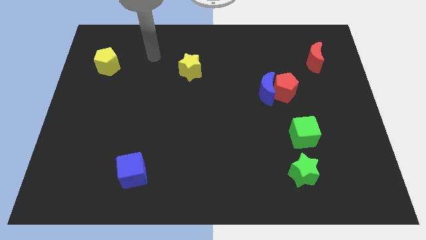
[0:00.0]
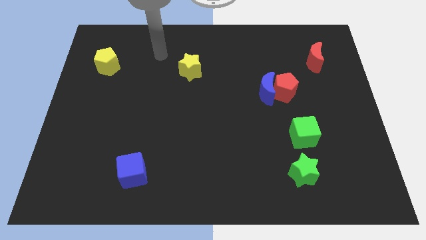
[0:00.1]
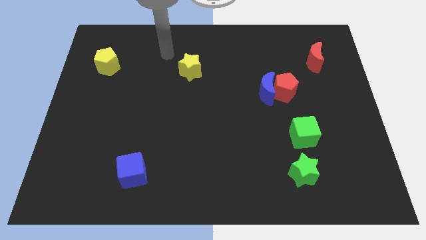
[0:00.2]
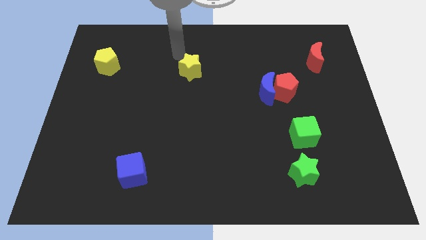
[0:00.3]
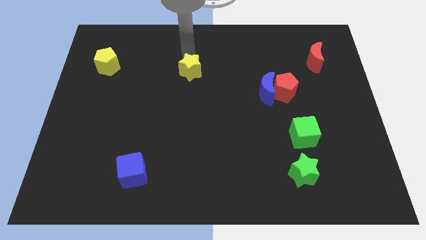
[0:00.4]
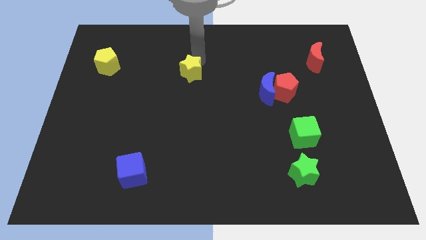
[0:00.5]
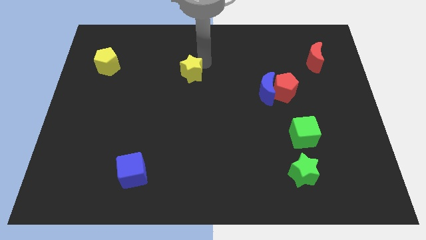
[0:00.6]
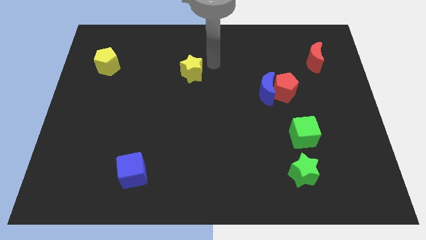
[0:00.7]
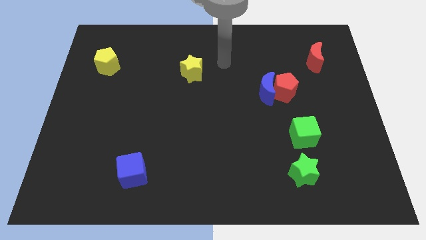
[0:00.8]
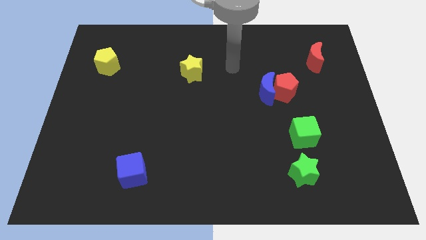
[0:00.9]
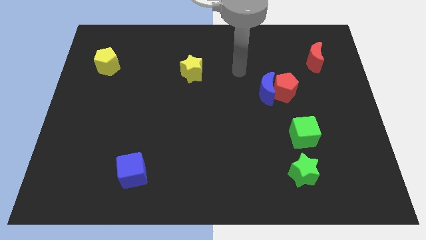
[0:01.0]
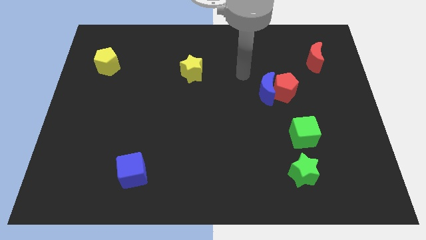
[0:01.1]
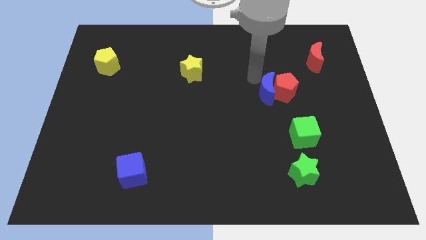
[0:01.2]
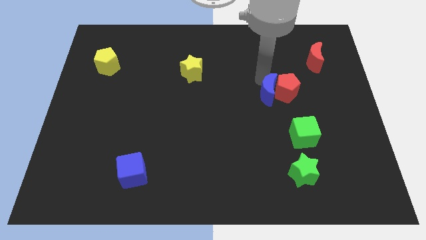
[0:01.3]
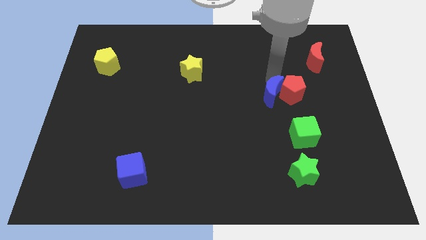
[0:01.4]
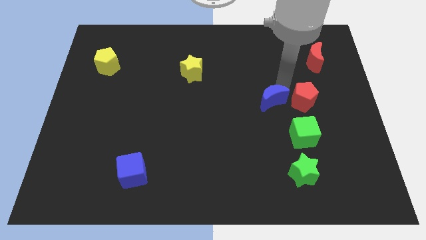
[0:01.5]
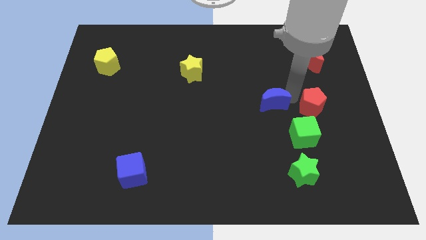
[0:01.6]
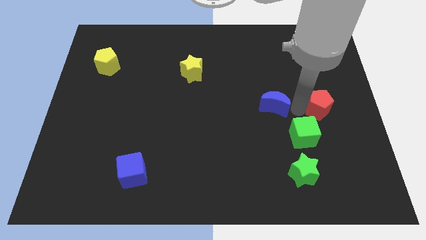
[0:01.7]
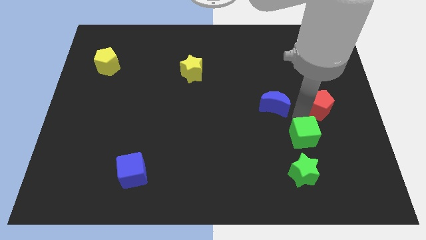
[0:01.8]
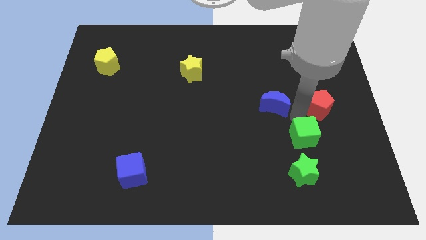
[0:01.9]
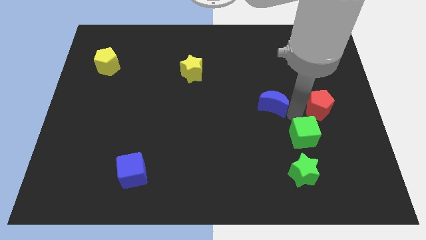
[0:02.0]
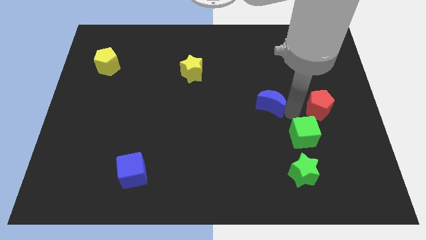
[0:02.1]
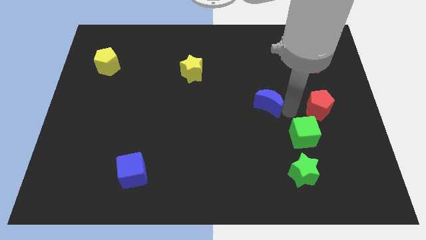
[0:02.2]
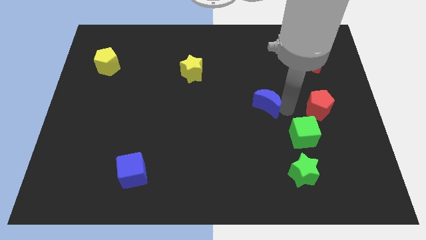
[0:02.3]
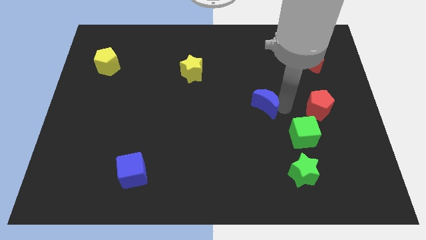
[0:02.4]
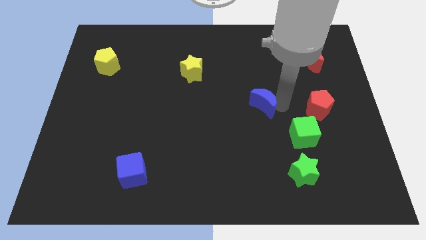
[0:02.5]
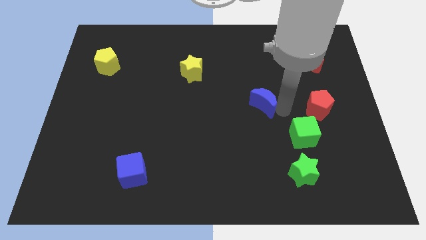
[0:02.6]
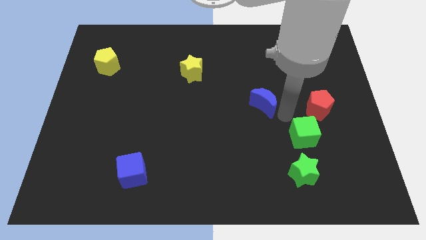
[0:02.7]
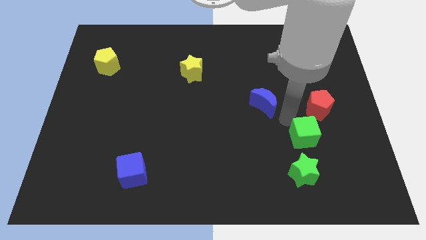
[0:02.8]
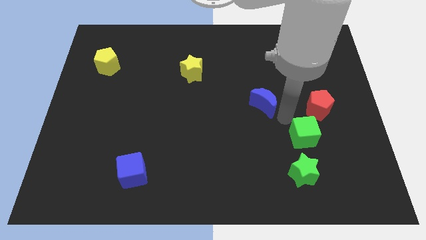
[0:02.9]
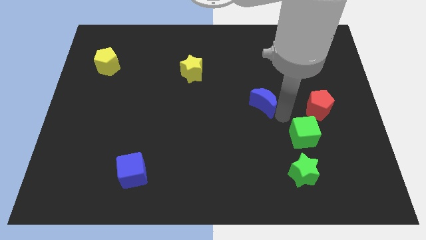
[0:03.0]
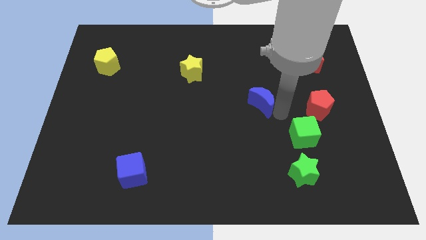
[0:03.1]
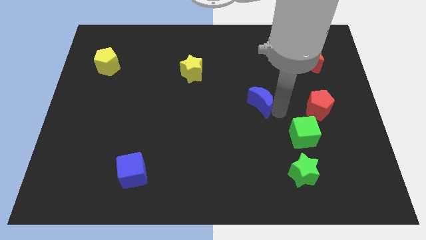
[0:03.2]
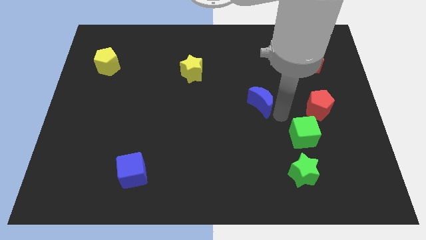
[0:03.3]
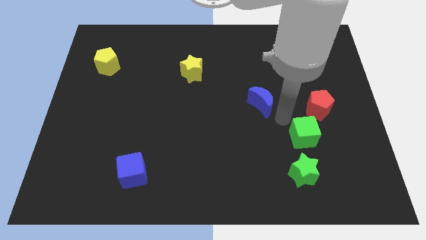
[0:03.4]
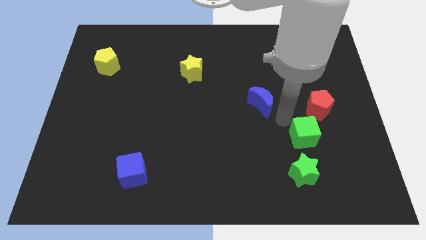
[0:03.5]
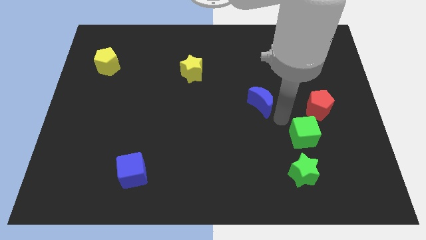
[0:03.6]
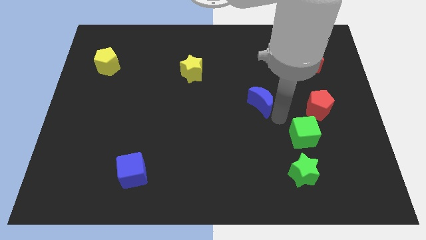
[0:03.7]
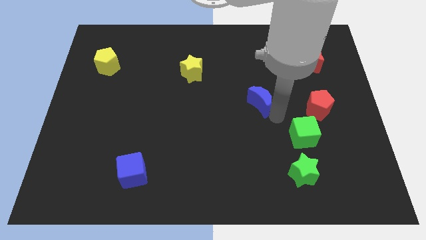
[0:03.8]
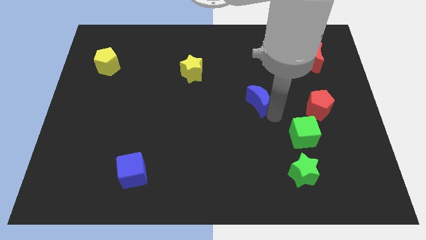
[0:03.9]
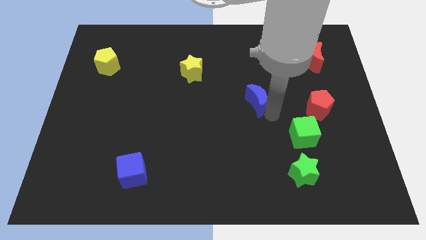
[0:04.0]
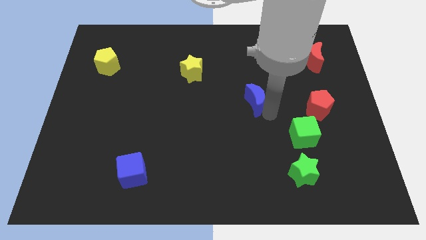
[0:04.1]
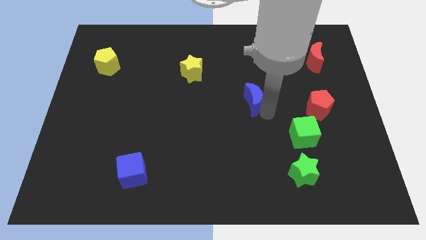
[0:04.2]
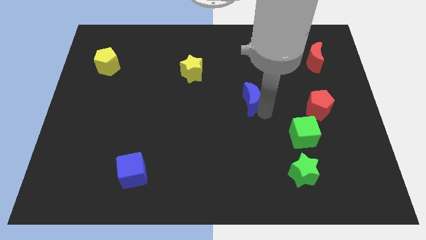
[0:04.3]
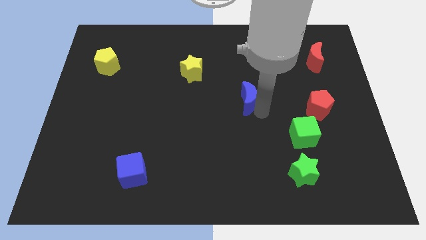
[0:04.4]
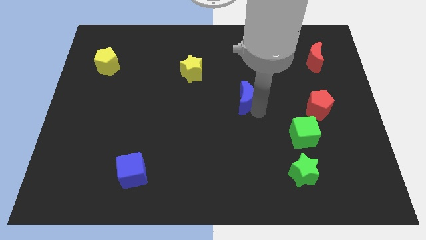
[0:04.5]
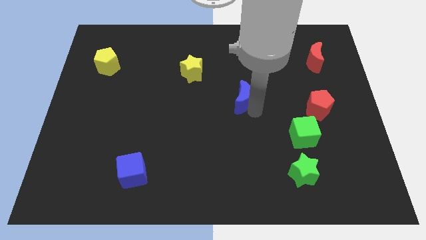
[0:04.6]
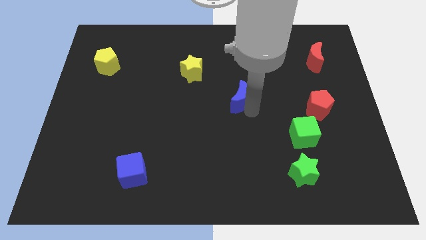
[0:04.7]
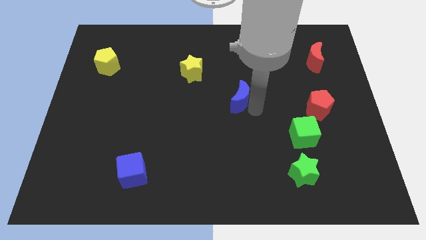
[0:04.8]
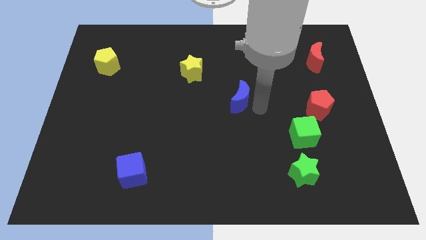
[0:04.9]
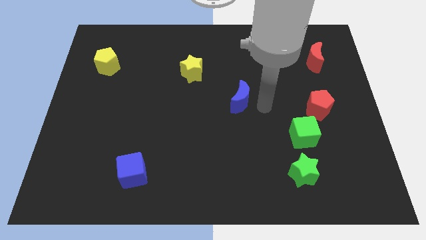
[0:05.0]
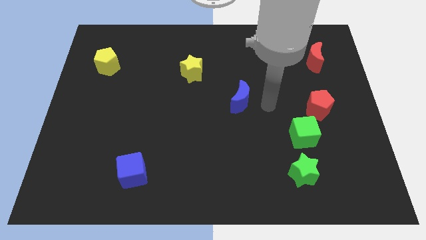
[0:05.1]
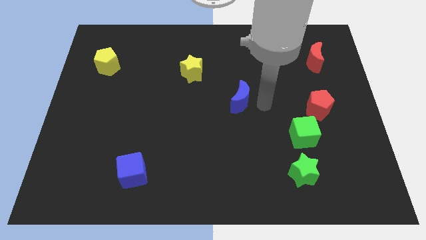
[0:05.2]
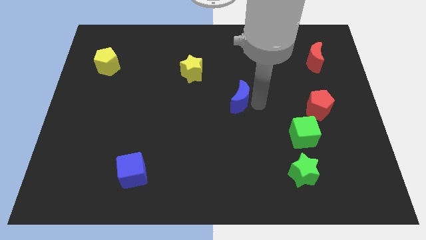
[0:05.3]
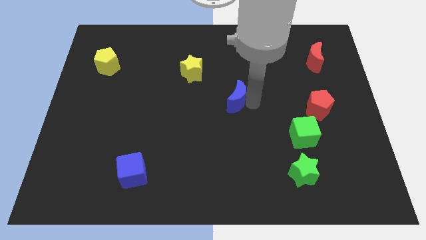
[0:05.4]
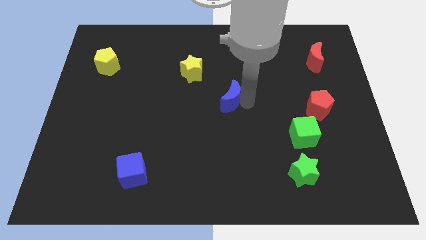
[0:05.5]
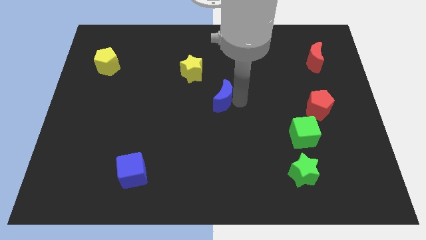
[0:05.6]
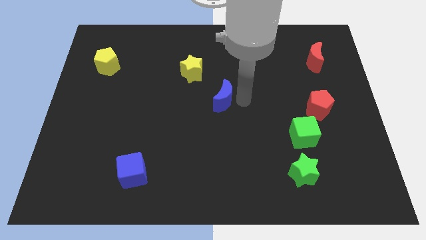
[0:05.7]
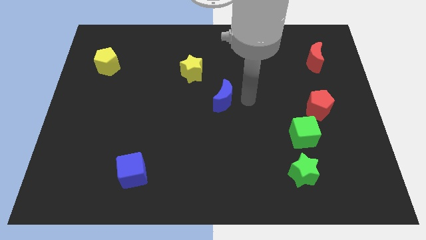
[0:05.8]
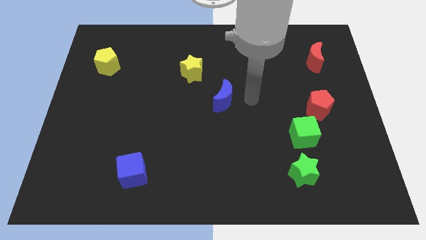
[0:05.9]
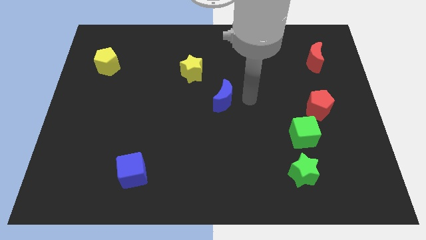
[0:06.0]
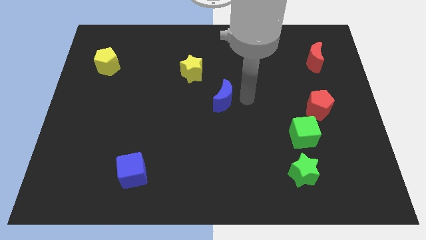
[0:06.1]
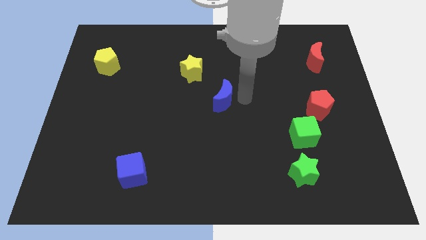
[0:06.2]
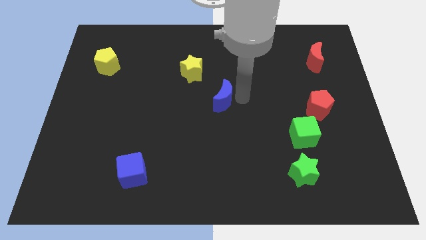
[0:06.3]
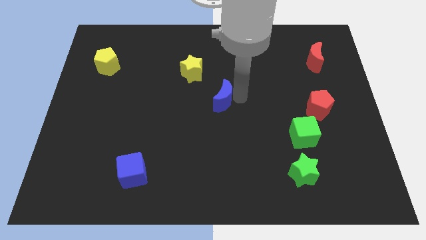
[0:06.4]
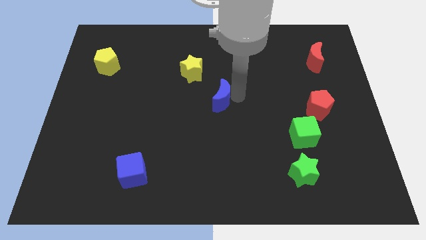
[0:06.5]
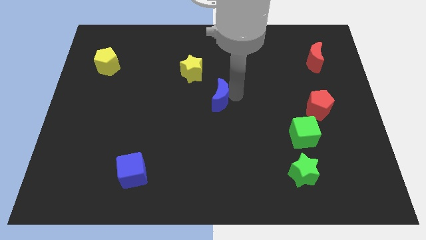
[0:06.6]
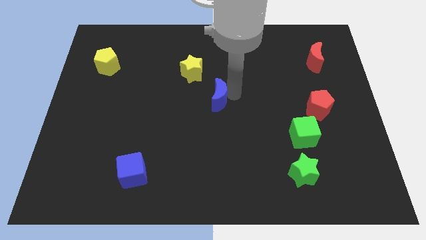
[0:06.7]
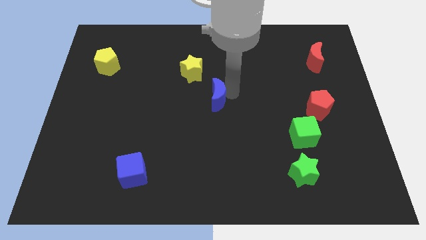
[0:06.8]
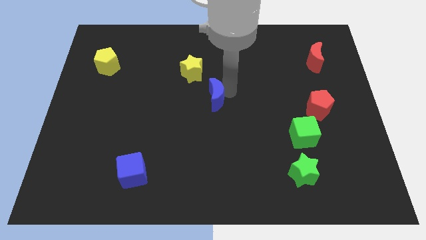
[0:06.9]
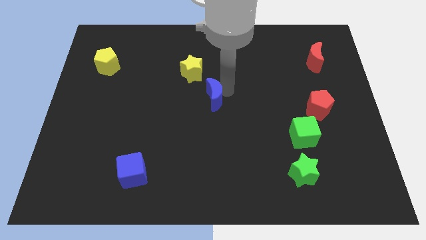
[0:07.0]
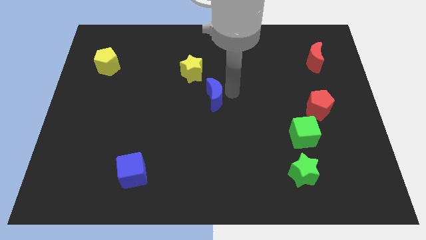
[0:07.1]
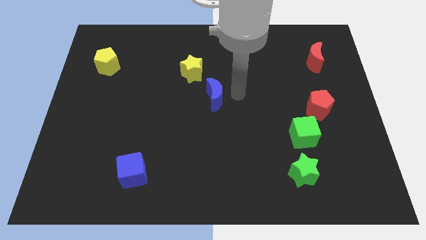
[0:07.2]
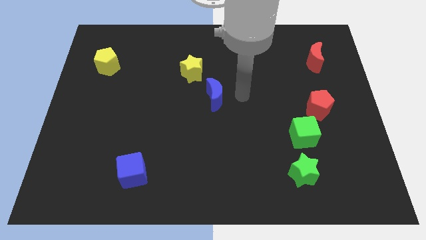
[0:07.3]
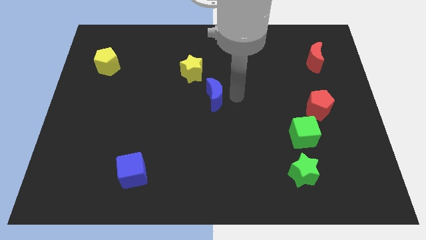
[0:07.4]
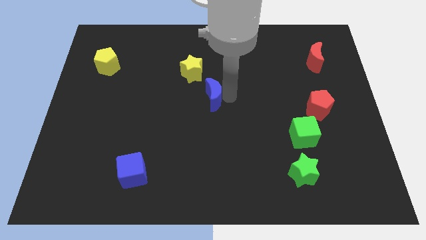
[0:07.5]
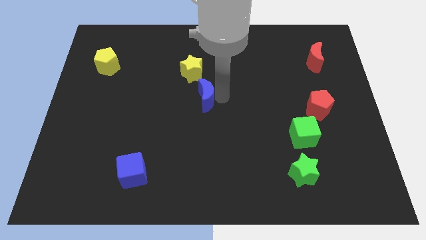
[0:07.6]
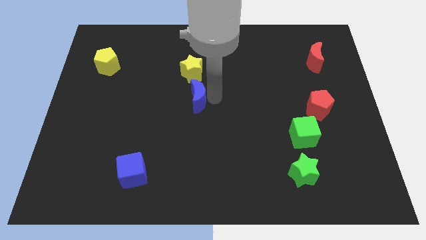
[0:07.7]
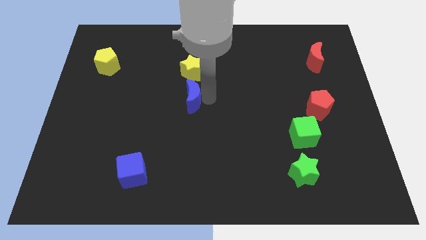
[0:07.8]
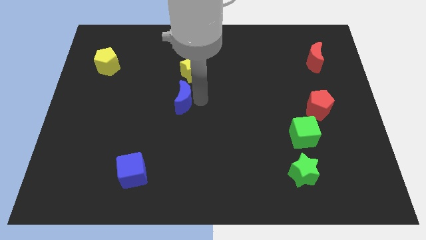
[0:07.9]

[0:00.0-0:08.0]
push the blue moon to the left

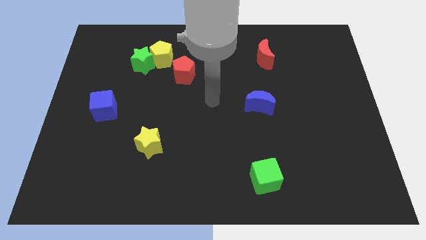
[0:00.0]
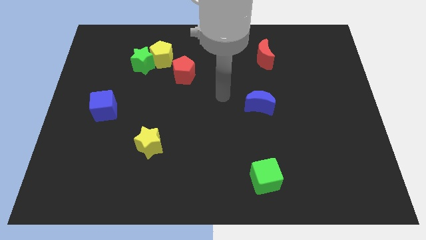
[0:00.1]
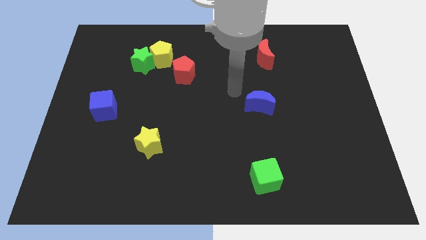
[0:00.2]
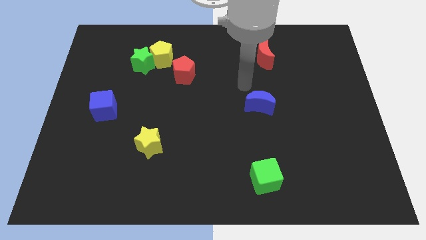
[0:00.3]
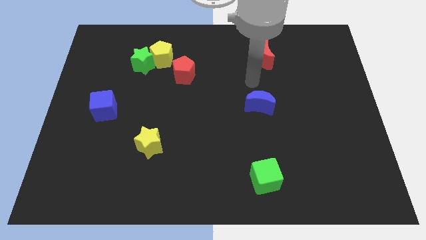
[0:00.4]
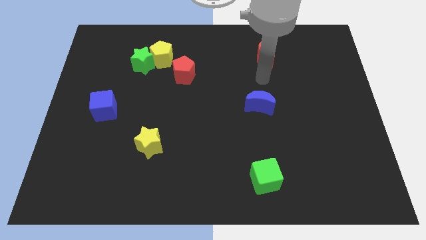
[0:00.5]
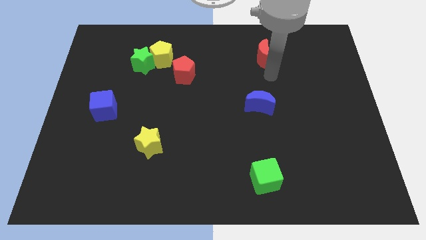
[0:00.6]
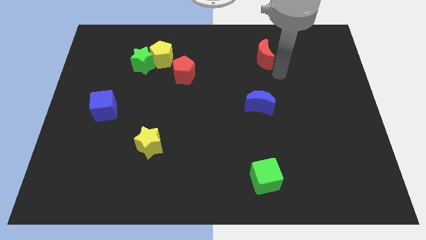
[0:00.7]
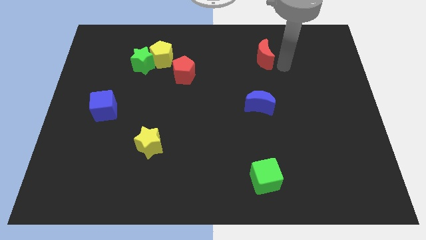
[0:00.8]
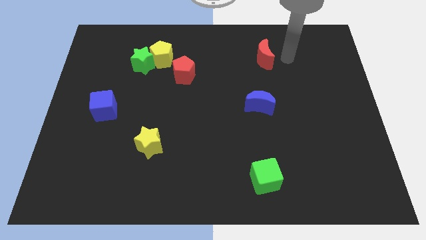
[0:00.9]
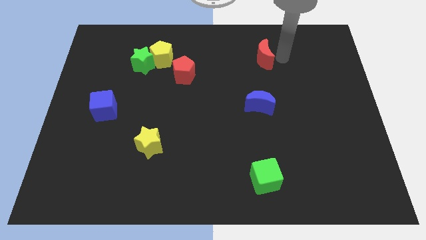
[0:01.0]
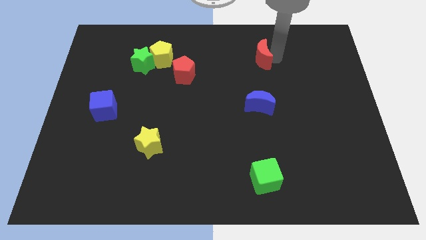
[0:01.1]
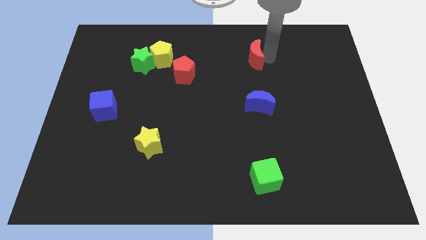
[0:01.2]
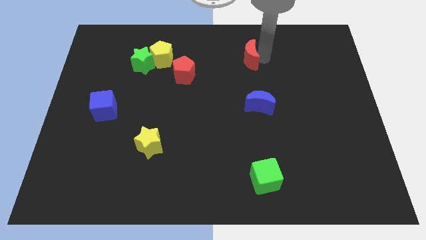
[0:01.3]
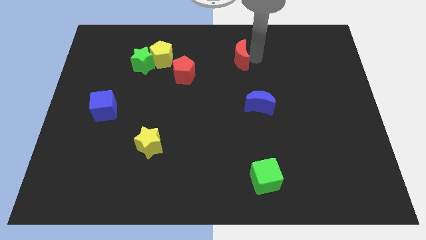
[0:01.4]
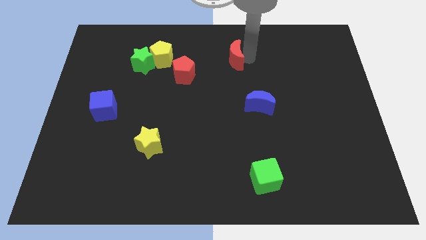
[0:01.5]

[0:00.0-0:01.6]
slightly slide the red moon left
